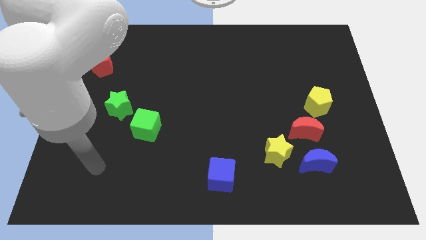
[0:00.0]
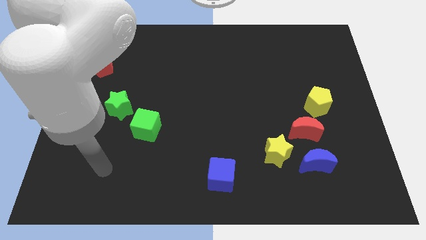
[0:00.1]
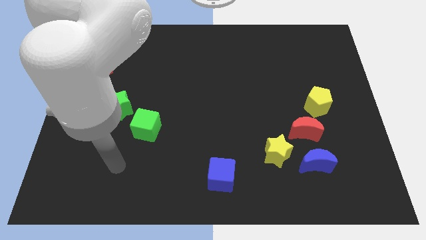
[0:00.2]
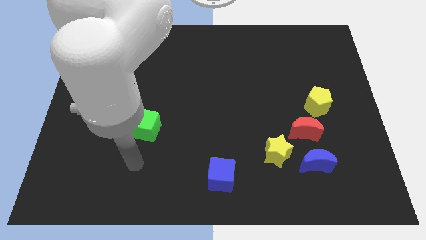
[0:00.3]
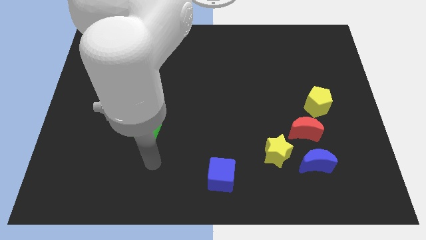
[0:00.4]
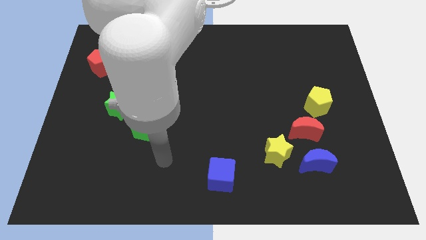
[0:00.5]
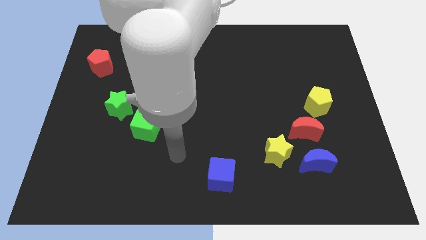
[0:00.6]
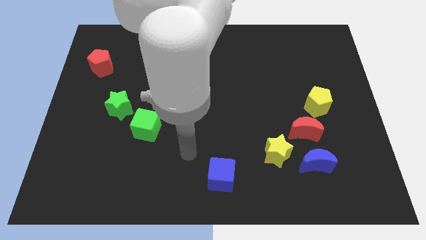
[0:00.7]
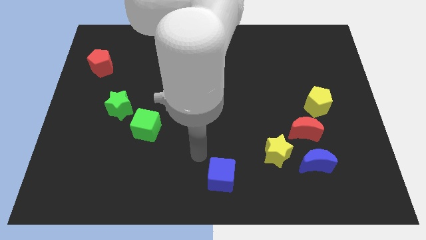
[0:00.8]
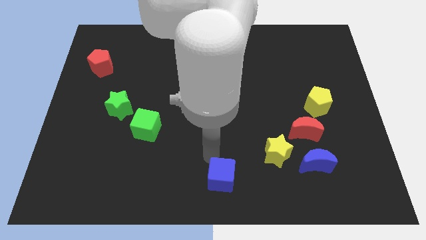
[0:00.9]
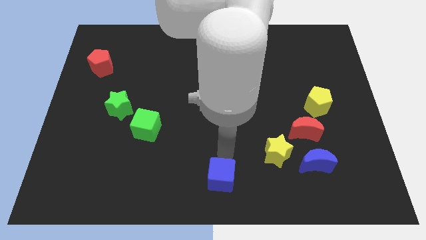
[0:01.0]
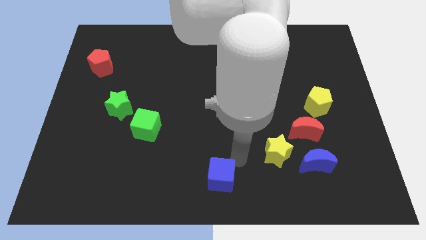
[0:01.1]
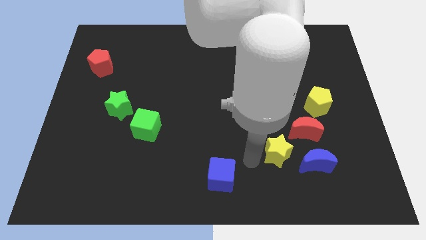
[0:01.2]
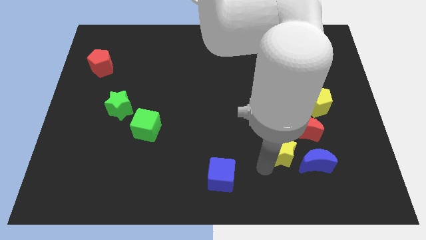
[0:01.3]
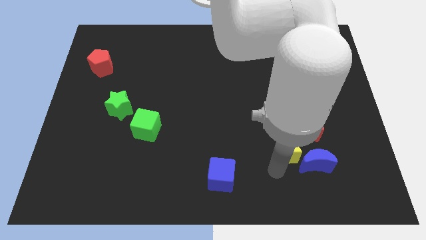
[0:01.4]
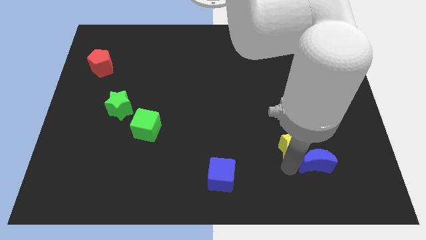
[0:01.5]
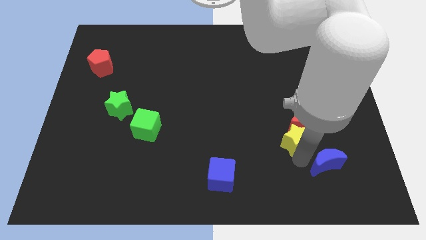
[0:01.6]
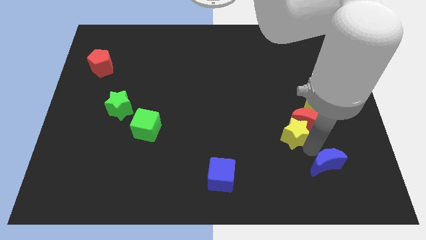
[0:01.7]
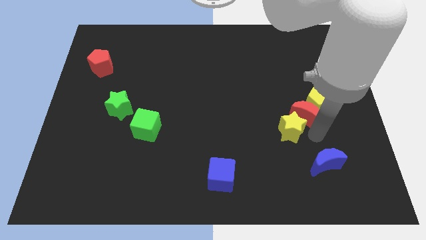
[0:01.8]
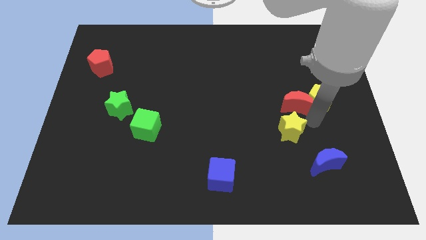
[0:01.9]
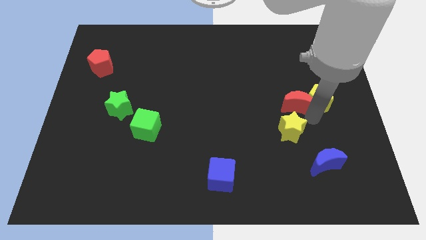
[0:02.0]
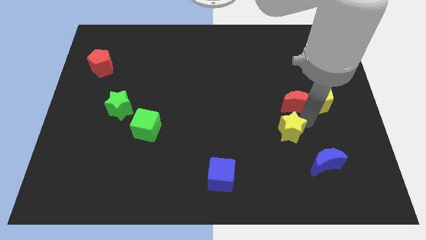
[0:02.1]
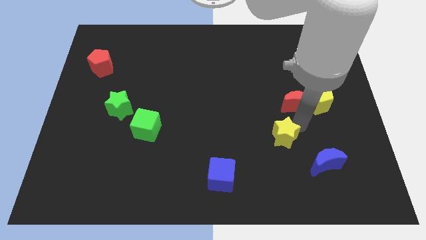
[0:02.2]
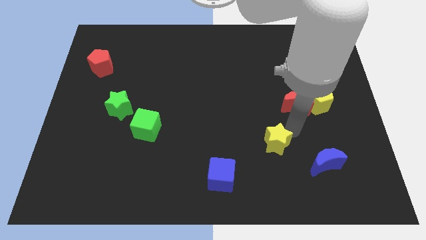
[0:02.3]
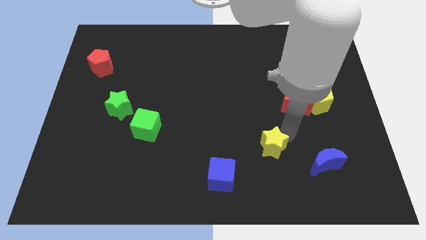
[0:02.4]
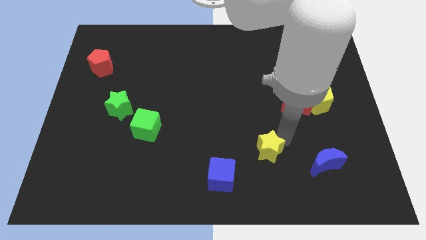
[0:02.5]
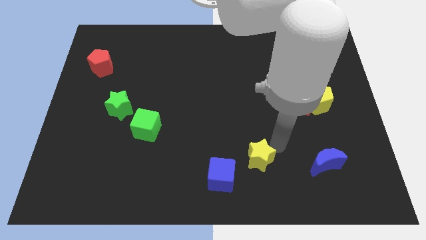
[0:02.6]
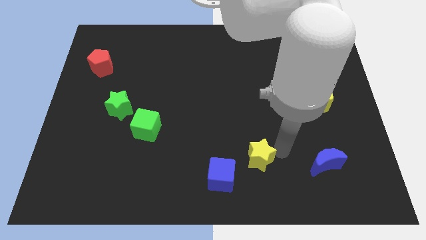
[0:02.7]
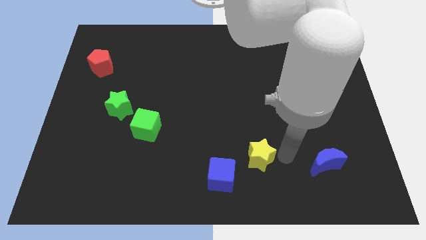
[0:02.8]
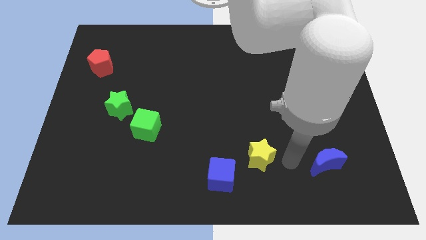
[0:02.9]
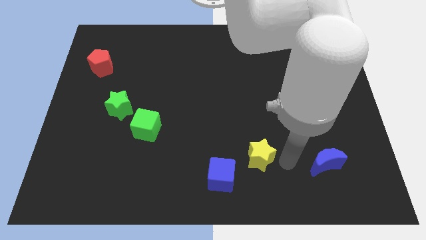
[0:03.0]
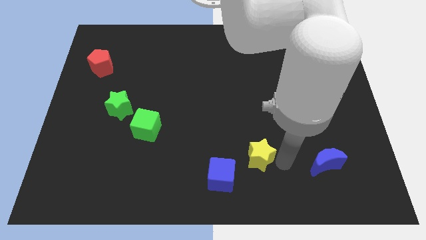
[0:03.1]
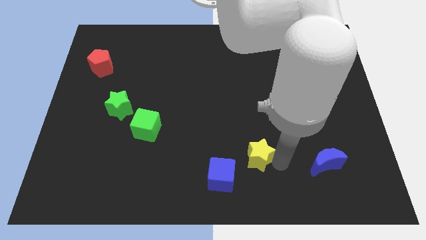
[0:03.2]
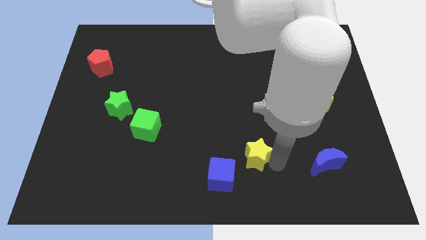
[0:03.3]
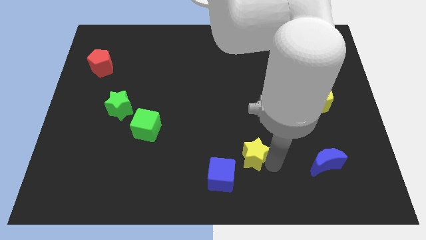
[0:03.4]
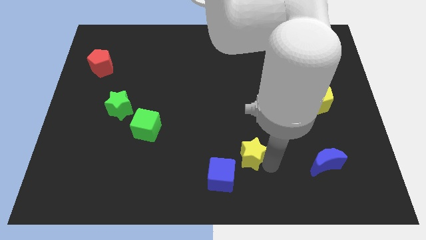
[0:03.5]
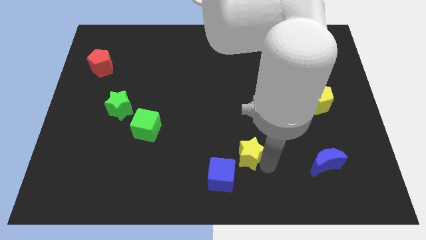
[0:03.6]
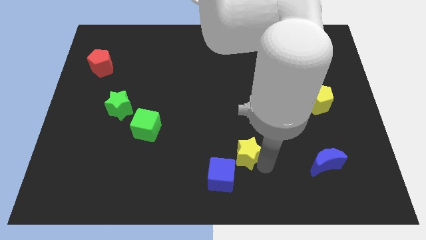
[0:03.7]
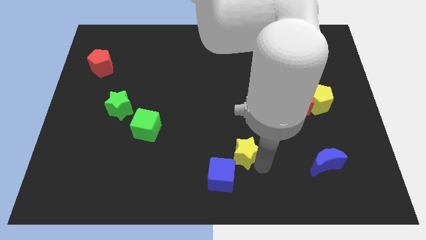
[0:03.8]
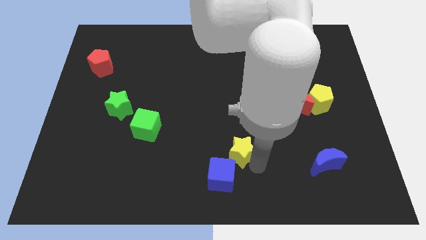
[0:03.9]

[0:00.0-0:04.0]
move the yellow star to the left a bit

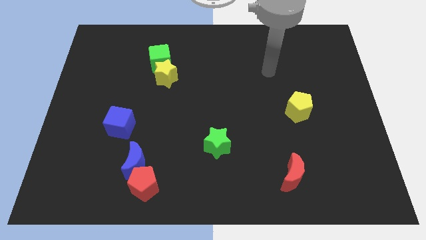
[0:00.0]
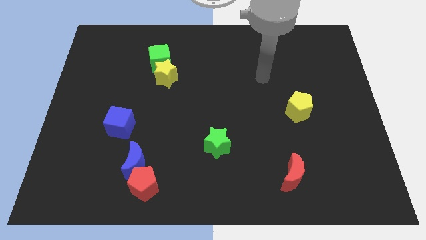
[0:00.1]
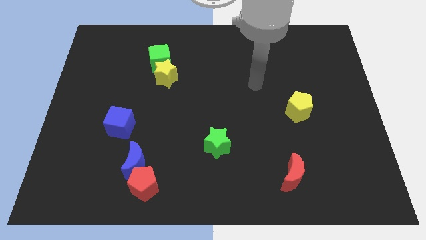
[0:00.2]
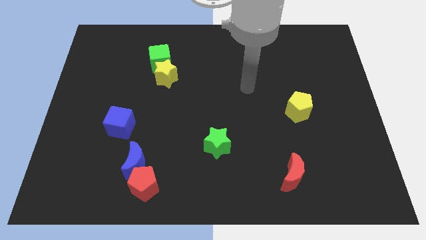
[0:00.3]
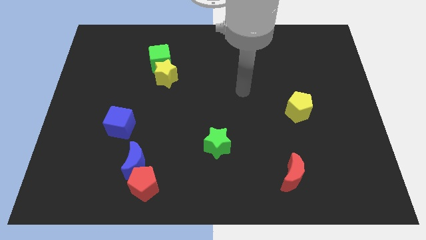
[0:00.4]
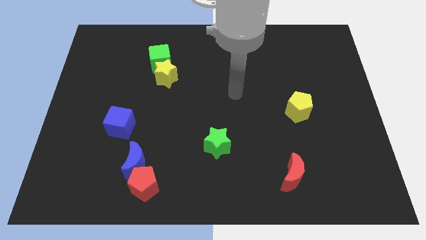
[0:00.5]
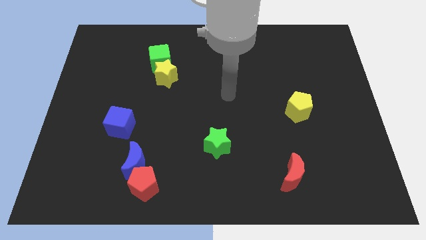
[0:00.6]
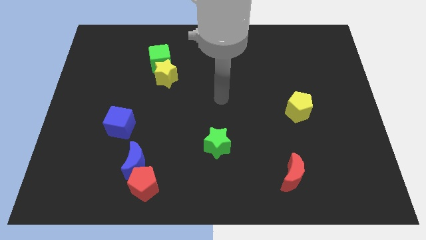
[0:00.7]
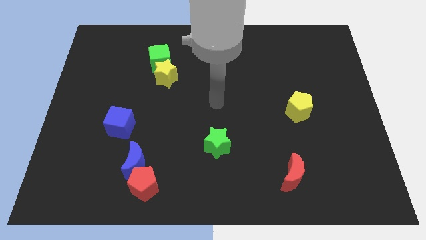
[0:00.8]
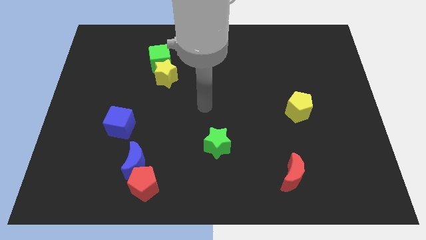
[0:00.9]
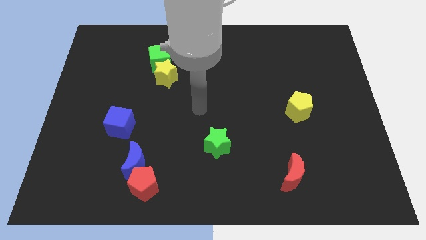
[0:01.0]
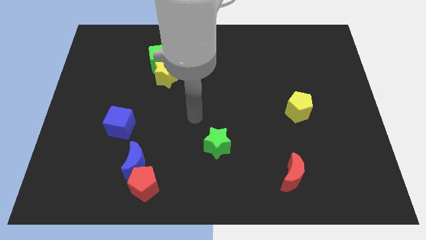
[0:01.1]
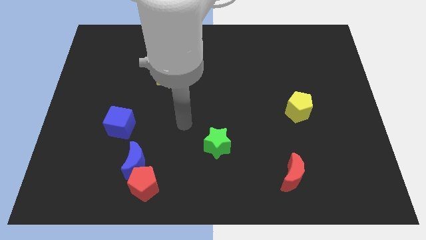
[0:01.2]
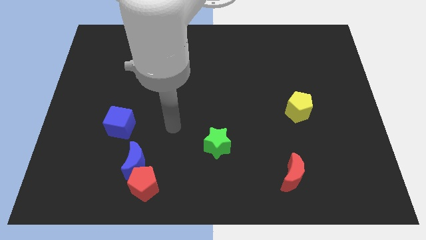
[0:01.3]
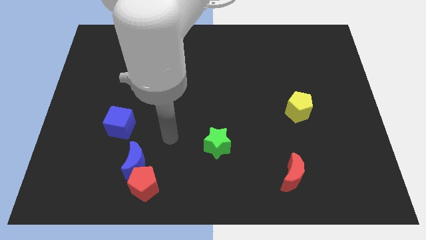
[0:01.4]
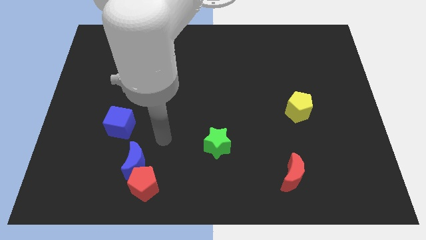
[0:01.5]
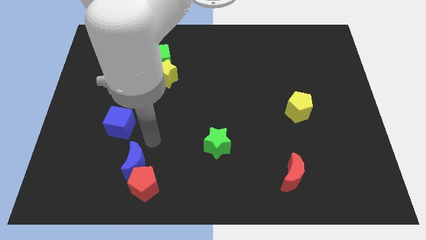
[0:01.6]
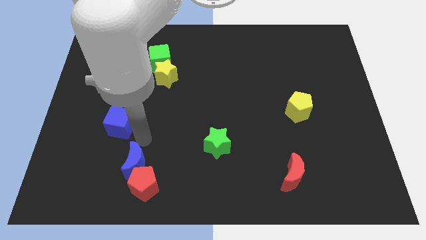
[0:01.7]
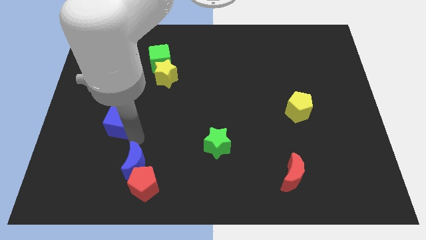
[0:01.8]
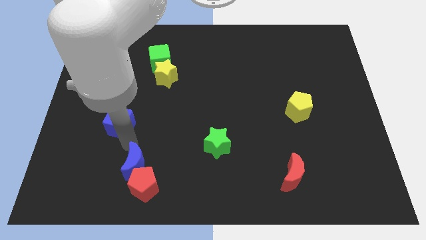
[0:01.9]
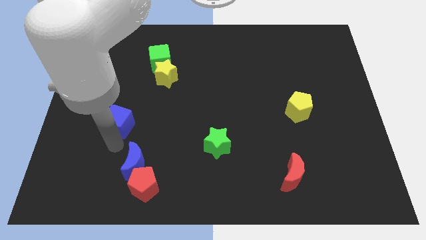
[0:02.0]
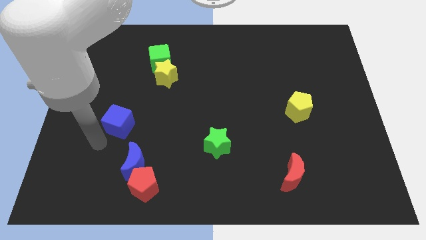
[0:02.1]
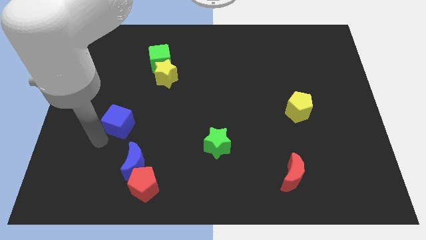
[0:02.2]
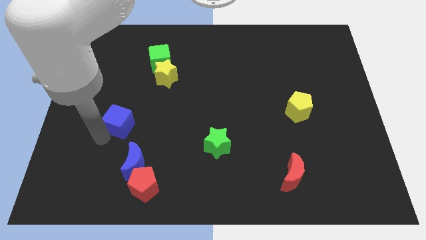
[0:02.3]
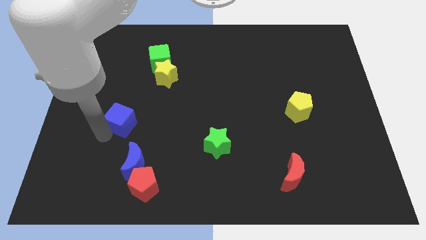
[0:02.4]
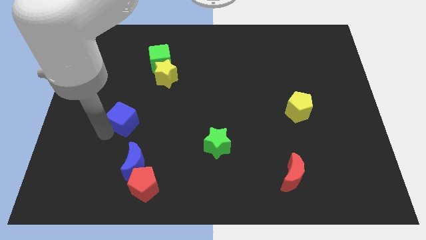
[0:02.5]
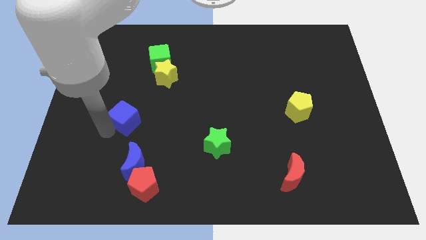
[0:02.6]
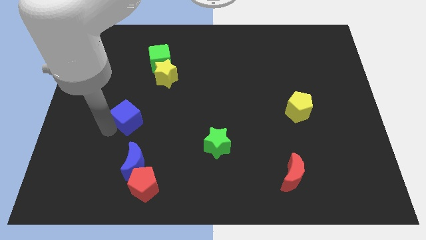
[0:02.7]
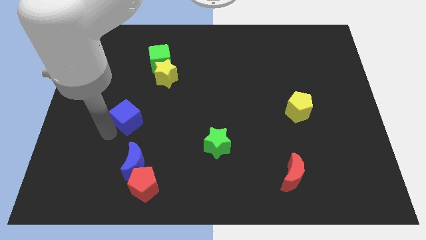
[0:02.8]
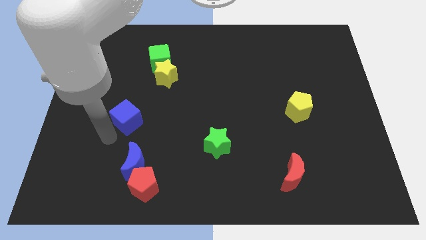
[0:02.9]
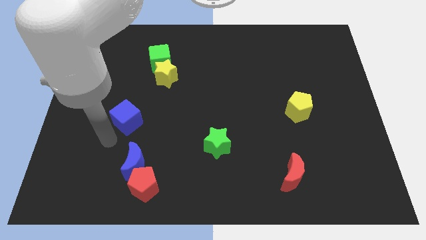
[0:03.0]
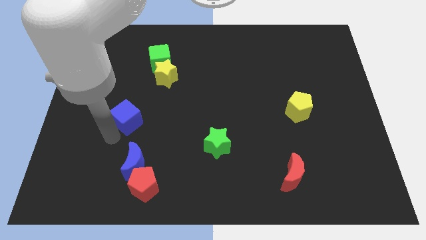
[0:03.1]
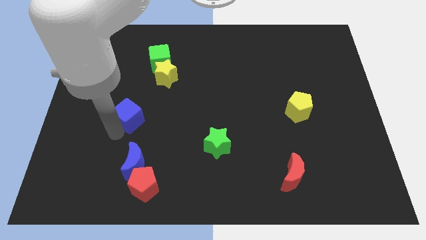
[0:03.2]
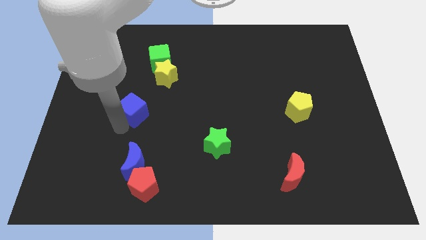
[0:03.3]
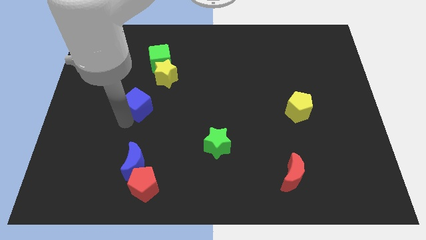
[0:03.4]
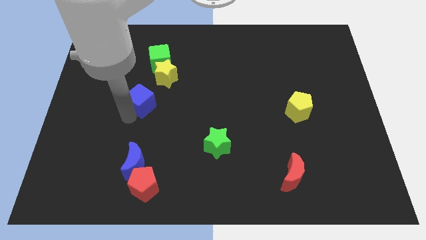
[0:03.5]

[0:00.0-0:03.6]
slightly move the blue cube diagonally upwards and to the right
